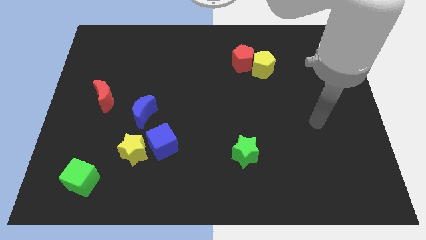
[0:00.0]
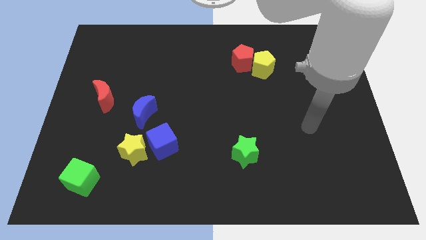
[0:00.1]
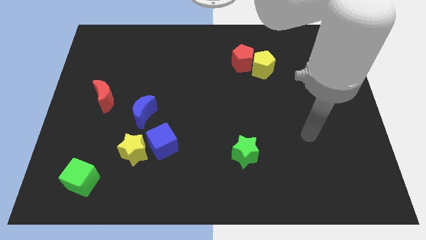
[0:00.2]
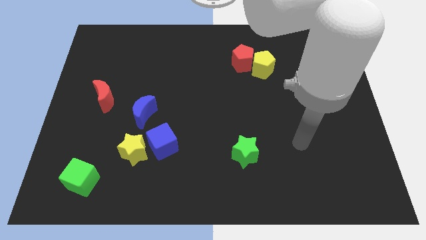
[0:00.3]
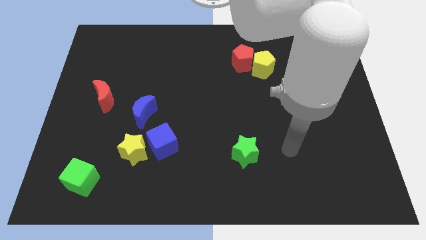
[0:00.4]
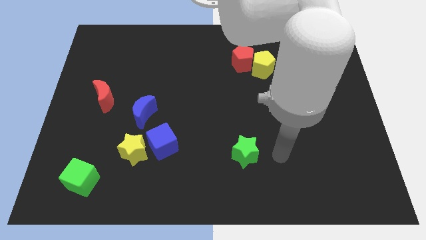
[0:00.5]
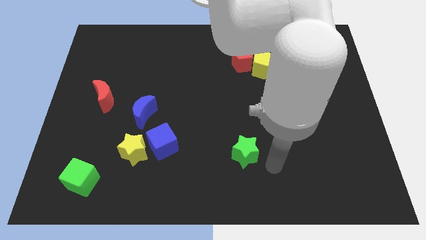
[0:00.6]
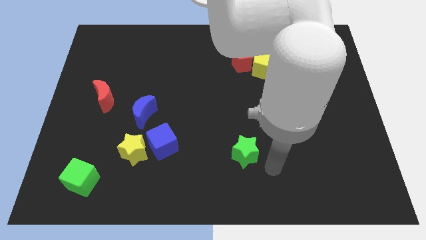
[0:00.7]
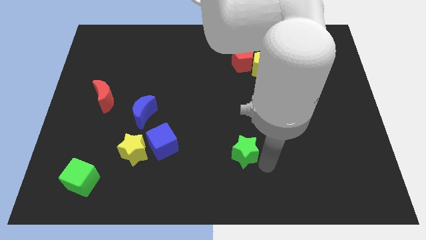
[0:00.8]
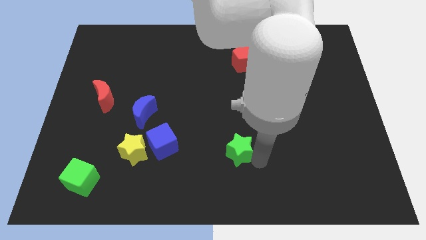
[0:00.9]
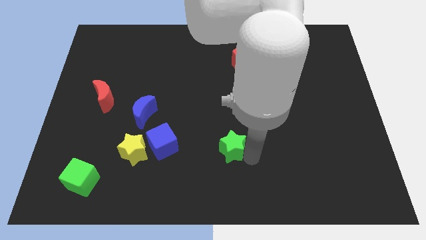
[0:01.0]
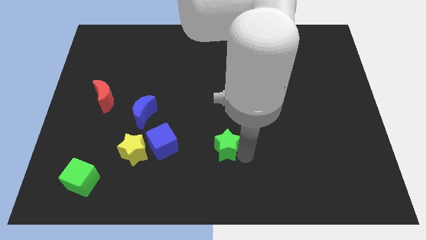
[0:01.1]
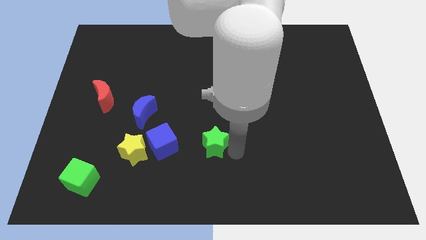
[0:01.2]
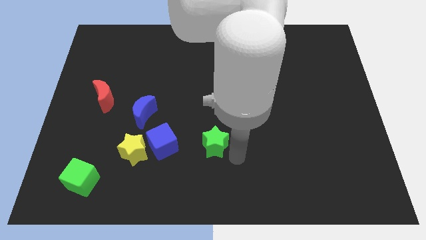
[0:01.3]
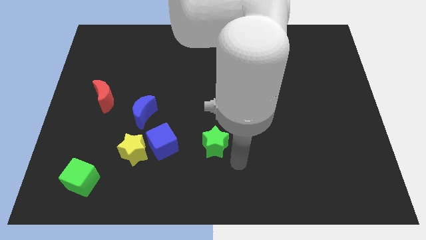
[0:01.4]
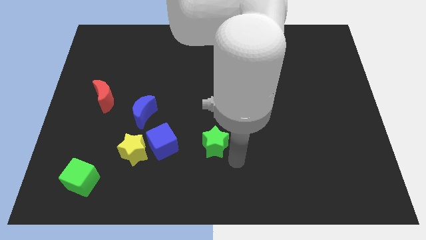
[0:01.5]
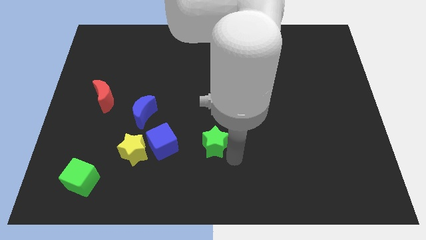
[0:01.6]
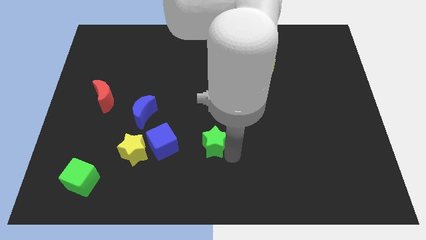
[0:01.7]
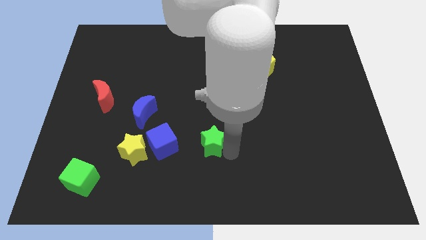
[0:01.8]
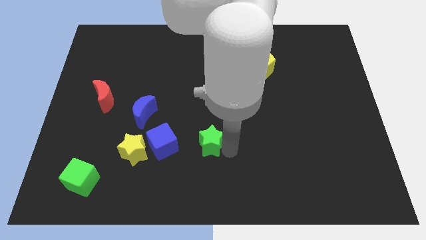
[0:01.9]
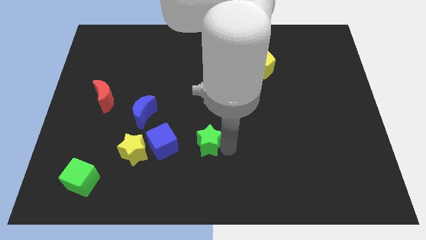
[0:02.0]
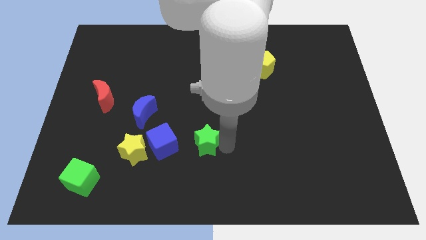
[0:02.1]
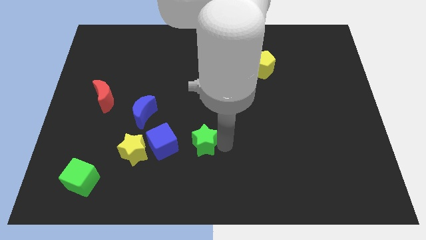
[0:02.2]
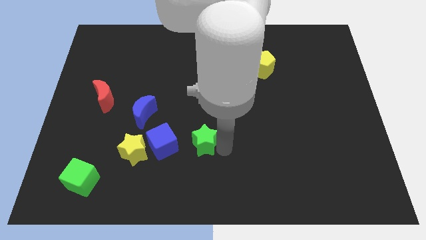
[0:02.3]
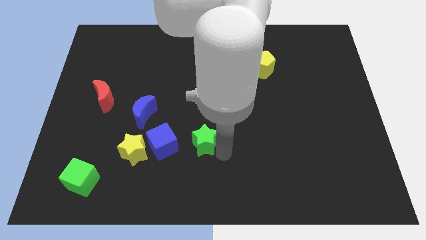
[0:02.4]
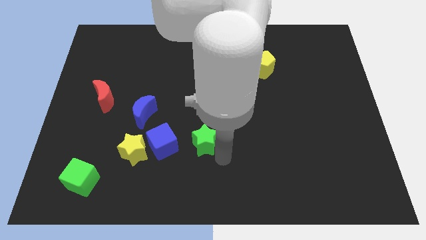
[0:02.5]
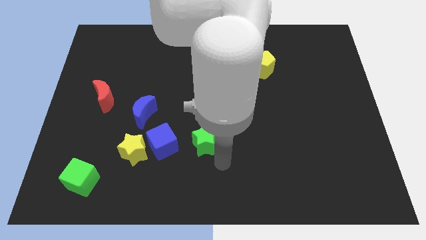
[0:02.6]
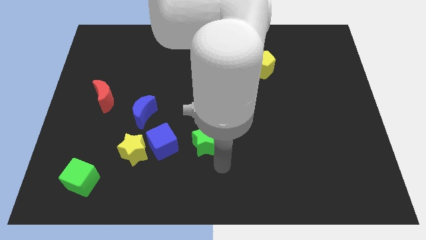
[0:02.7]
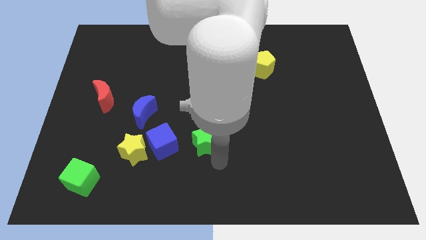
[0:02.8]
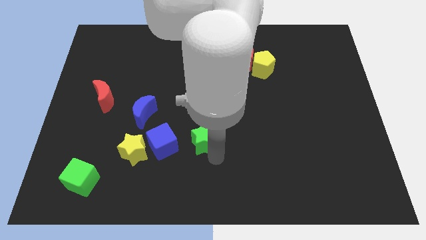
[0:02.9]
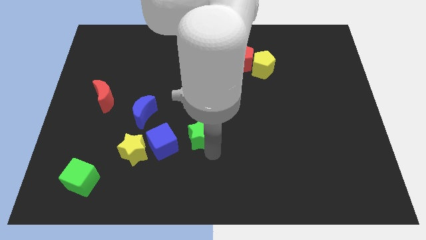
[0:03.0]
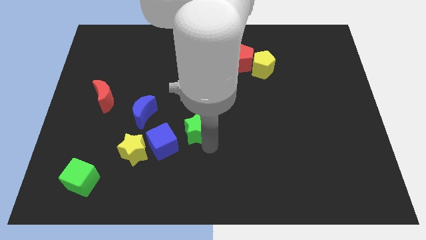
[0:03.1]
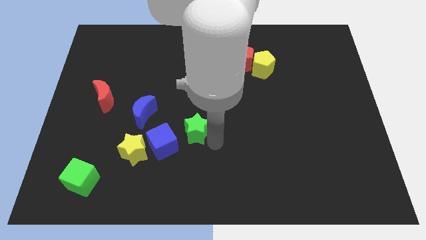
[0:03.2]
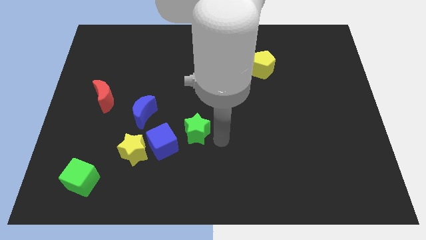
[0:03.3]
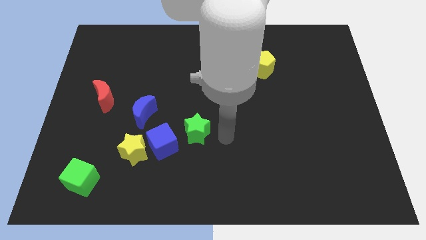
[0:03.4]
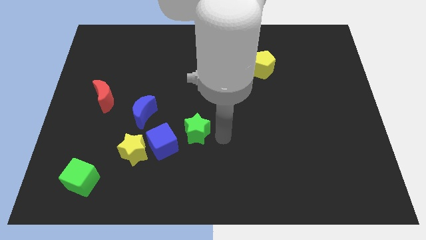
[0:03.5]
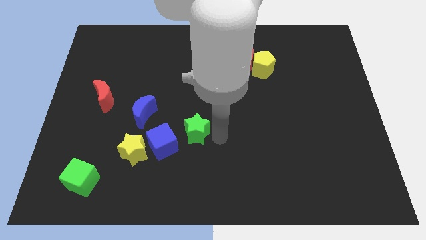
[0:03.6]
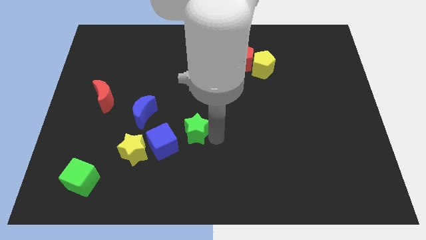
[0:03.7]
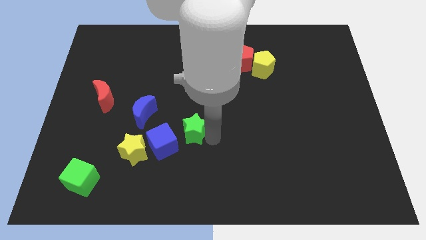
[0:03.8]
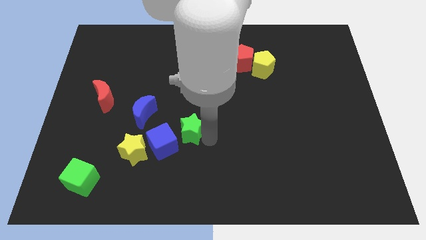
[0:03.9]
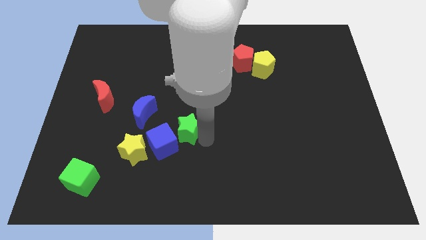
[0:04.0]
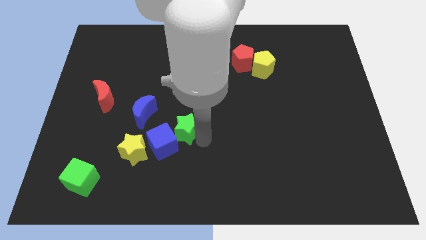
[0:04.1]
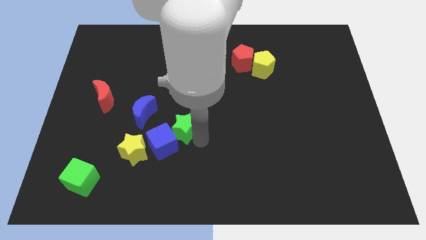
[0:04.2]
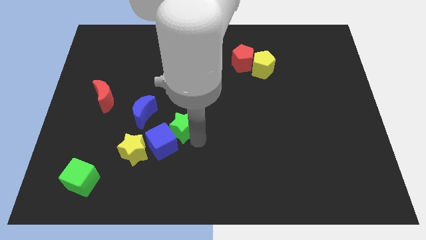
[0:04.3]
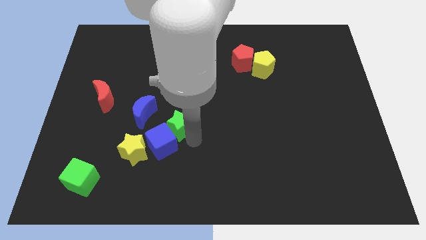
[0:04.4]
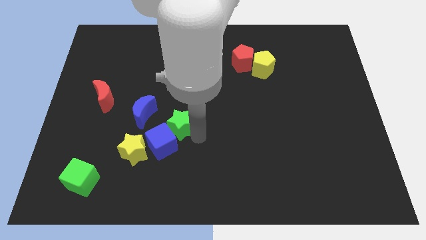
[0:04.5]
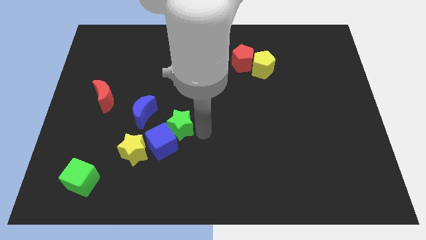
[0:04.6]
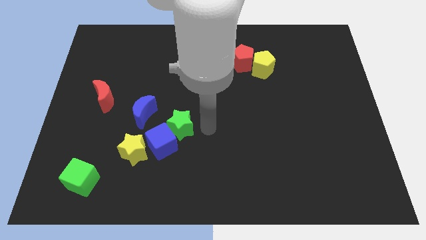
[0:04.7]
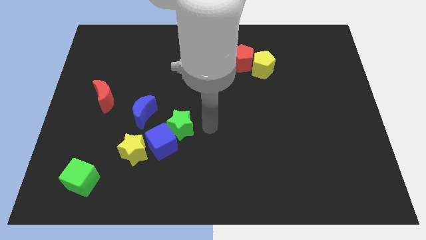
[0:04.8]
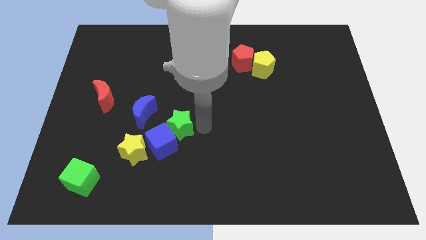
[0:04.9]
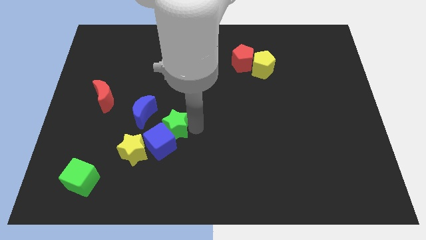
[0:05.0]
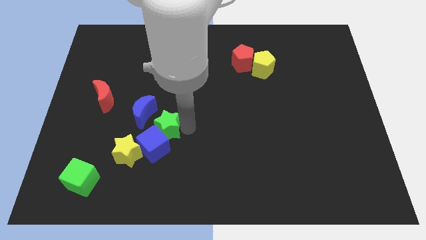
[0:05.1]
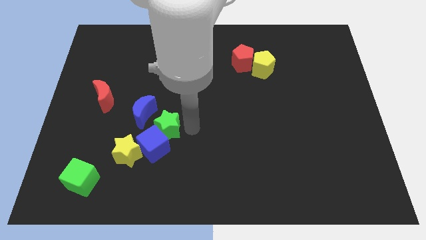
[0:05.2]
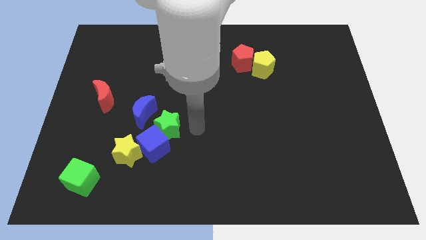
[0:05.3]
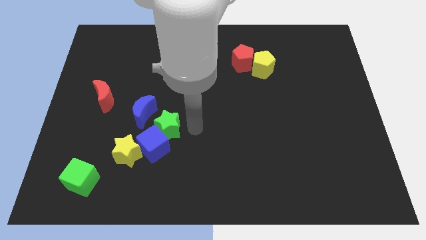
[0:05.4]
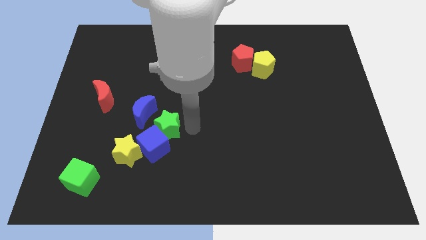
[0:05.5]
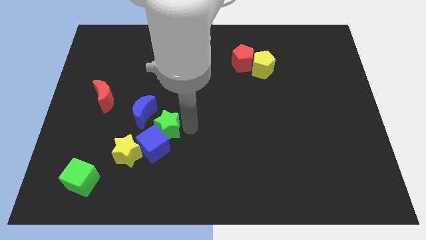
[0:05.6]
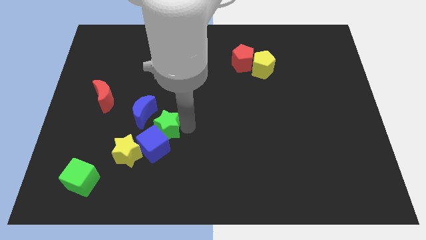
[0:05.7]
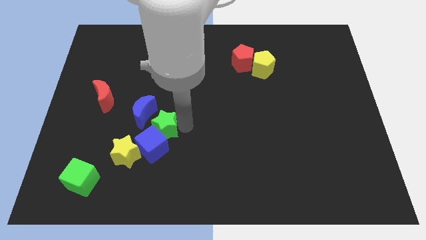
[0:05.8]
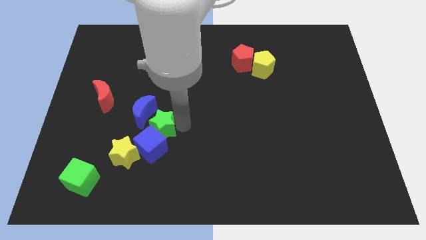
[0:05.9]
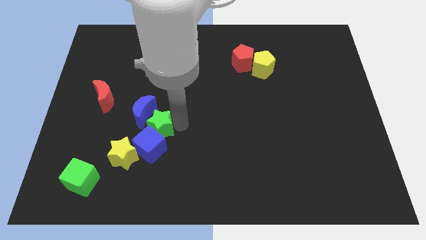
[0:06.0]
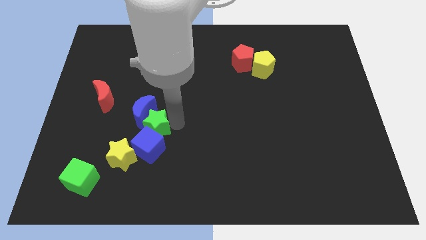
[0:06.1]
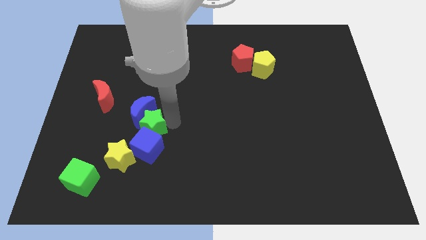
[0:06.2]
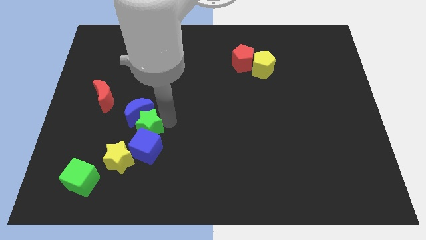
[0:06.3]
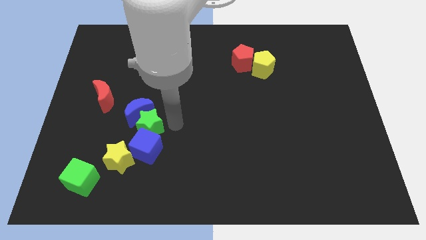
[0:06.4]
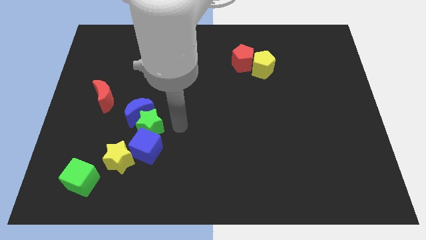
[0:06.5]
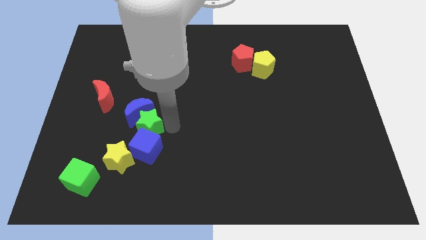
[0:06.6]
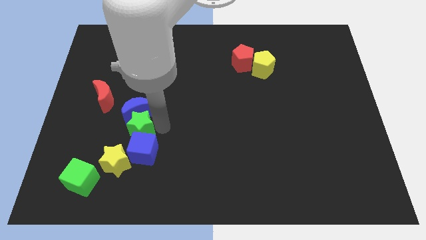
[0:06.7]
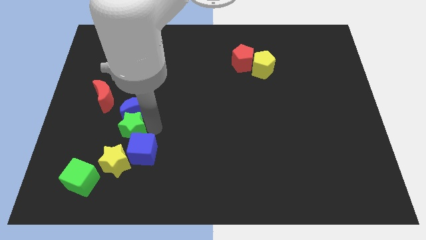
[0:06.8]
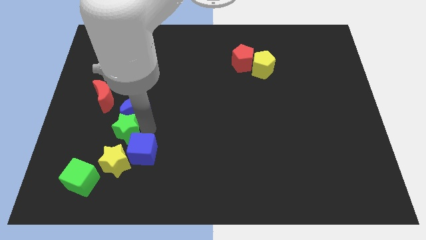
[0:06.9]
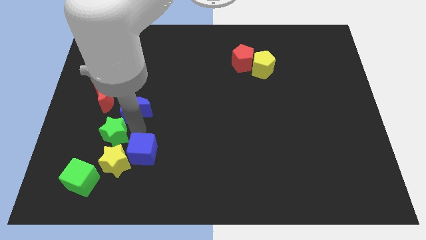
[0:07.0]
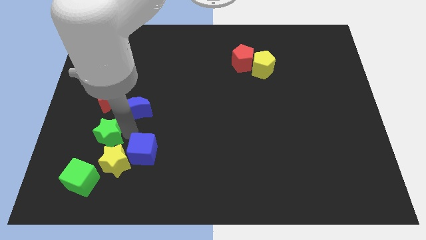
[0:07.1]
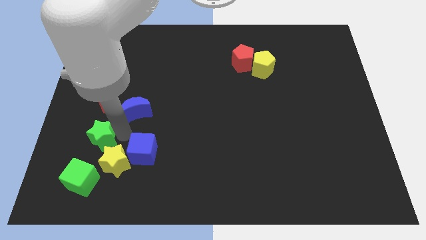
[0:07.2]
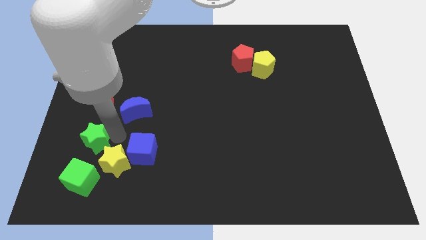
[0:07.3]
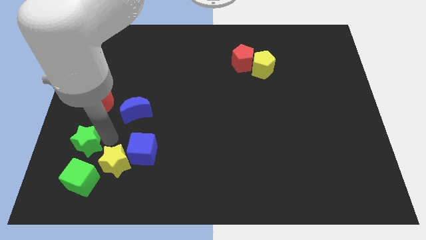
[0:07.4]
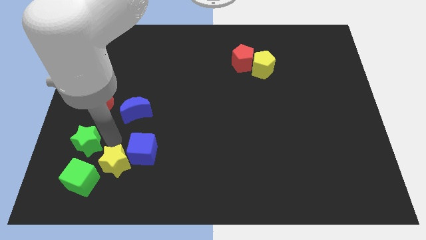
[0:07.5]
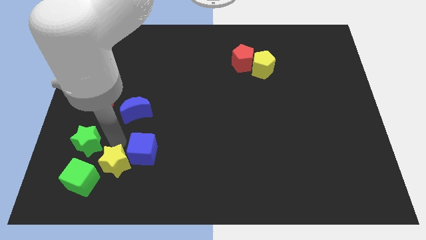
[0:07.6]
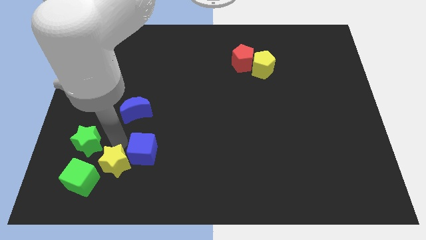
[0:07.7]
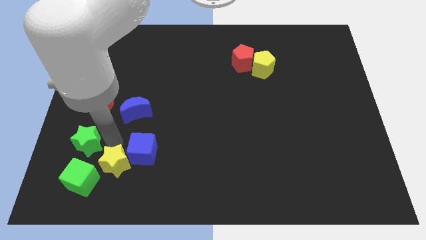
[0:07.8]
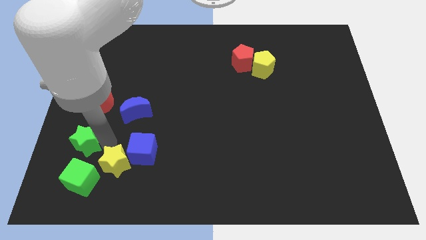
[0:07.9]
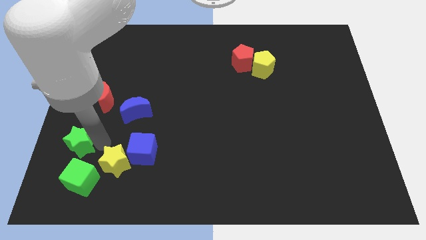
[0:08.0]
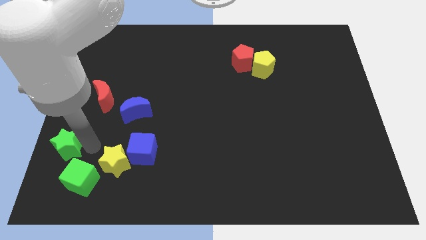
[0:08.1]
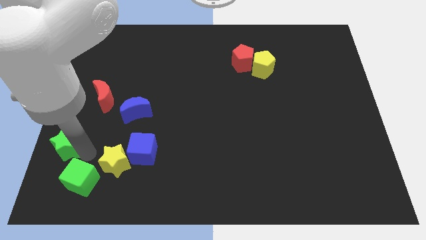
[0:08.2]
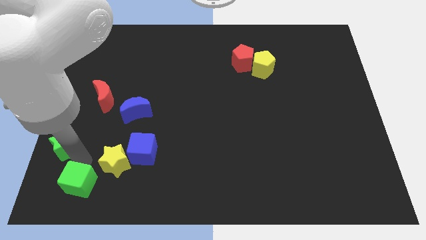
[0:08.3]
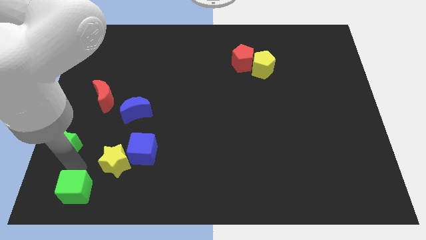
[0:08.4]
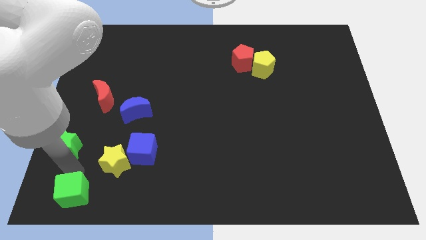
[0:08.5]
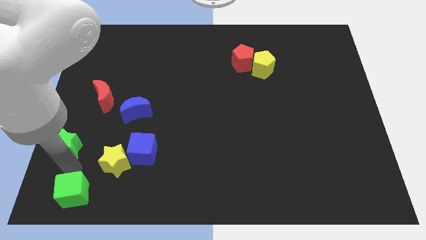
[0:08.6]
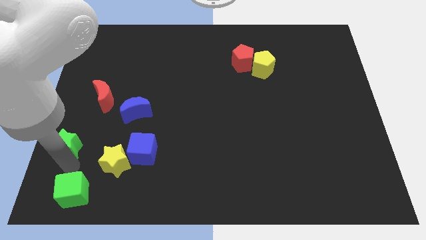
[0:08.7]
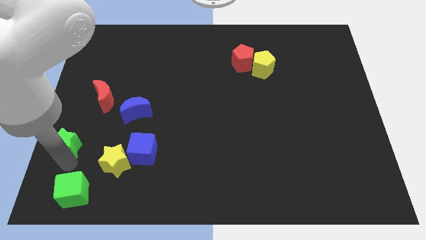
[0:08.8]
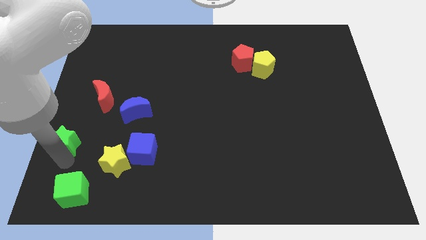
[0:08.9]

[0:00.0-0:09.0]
push the green star to the left side of the board
